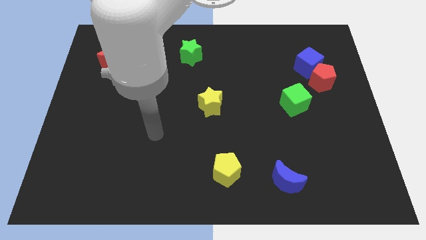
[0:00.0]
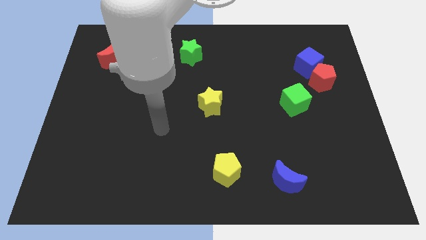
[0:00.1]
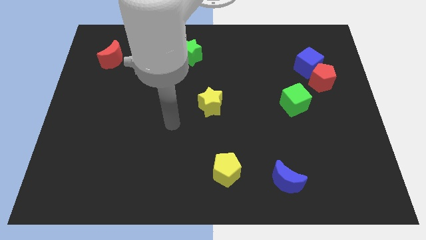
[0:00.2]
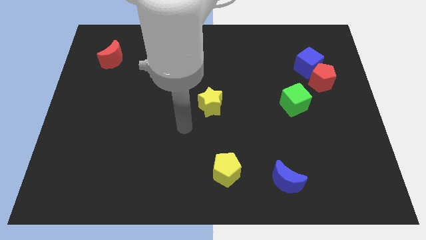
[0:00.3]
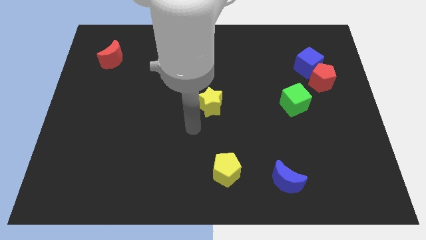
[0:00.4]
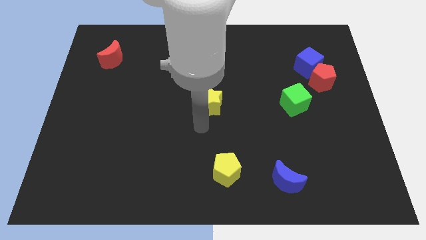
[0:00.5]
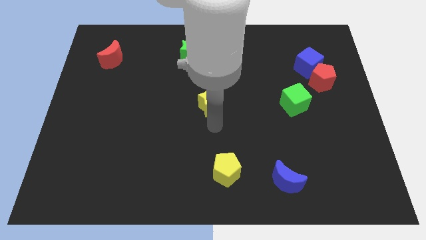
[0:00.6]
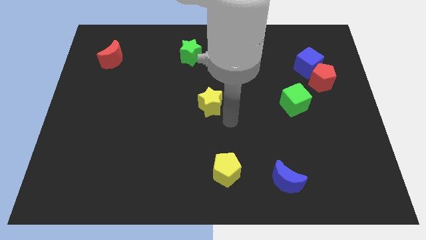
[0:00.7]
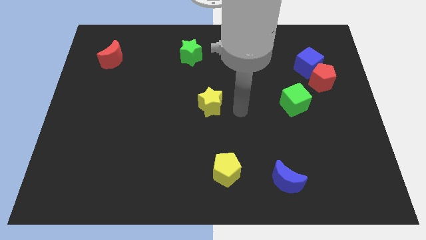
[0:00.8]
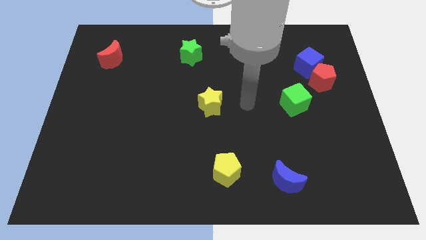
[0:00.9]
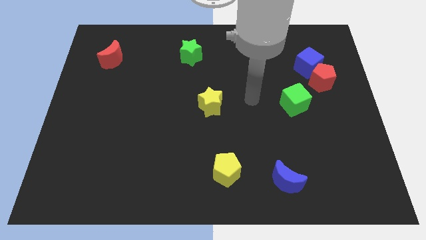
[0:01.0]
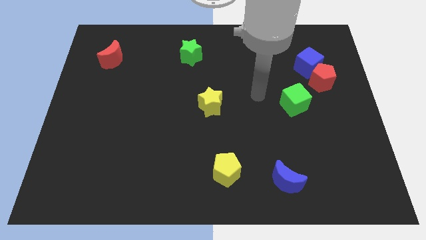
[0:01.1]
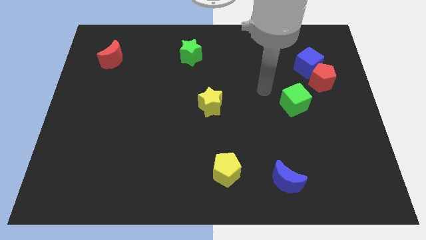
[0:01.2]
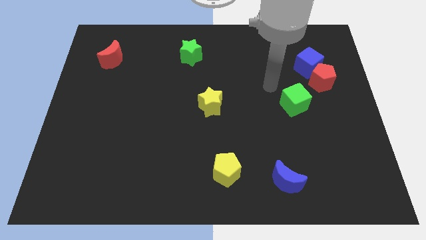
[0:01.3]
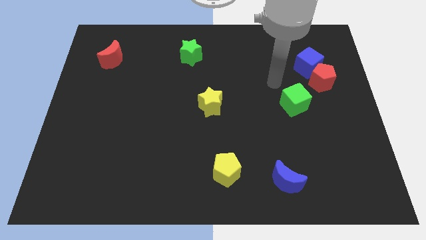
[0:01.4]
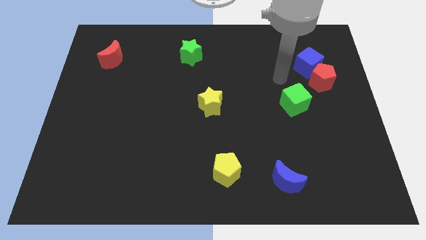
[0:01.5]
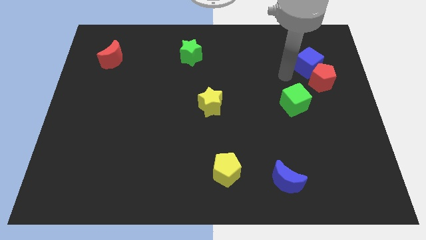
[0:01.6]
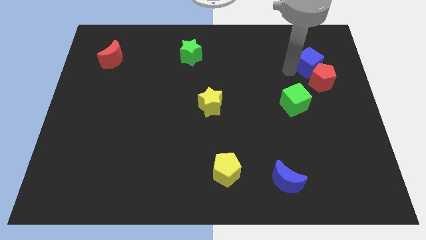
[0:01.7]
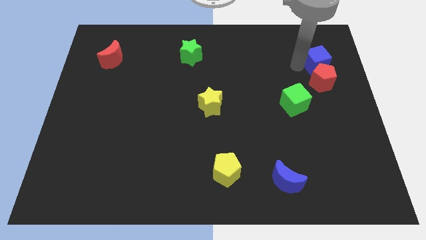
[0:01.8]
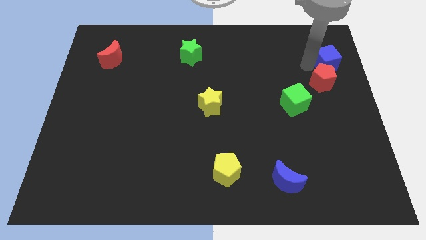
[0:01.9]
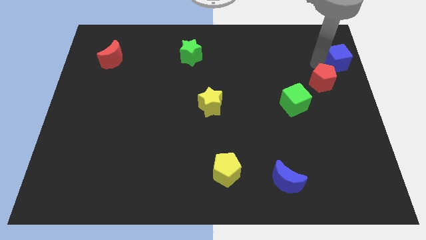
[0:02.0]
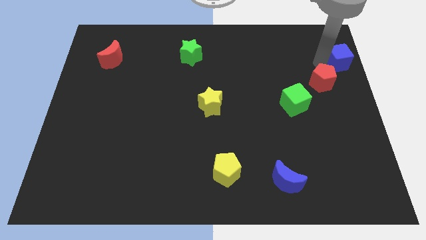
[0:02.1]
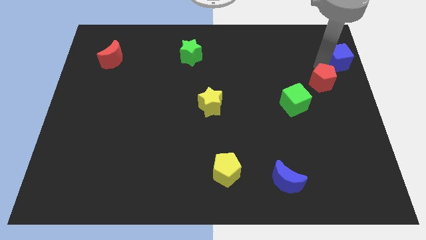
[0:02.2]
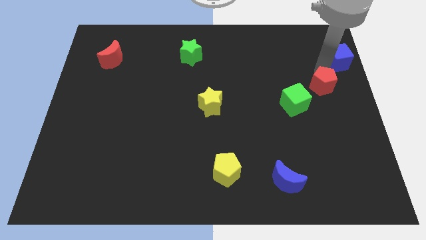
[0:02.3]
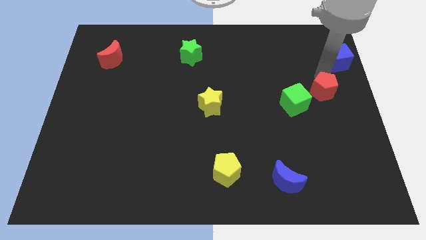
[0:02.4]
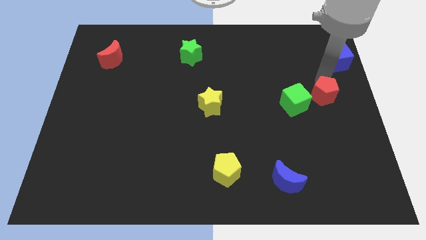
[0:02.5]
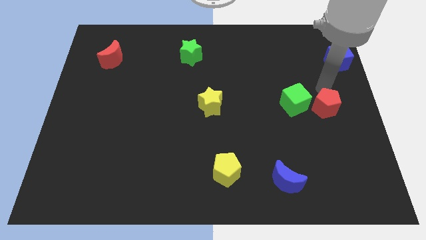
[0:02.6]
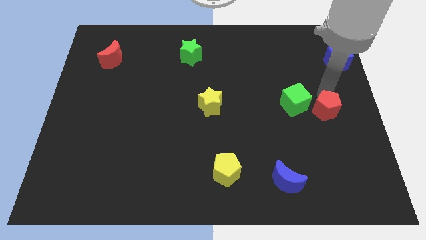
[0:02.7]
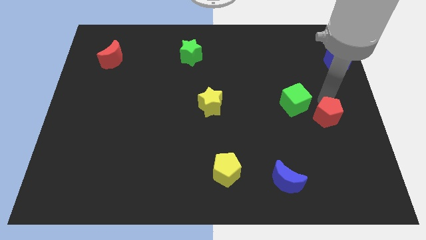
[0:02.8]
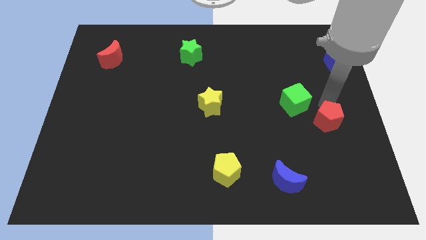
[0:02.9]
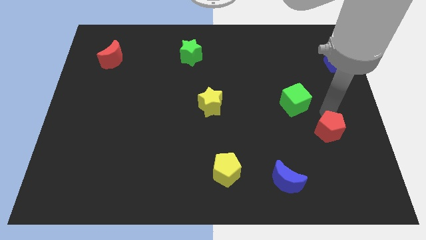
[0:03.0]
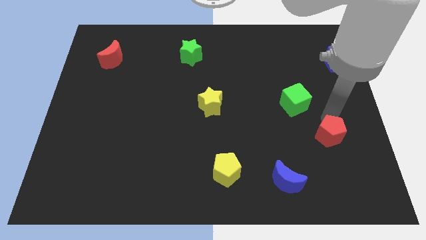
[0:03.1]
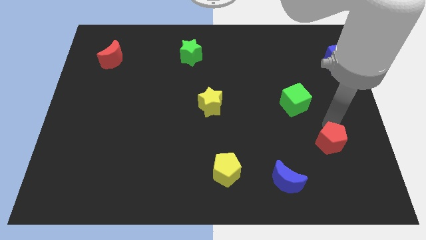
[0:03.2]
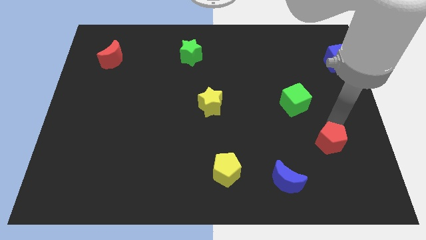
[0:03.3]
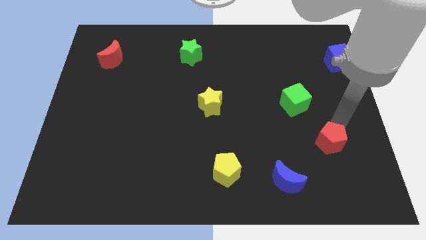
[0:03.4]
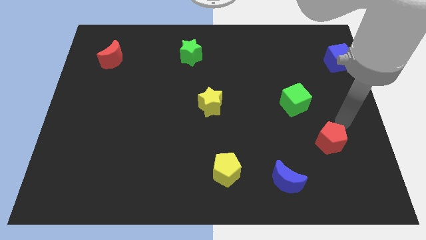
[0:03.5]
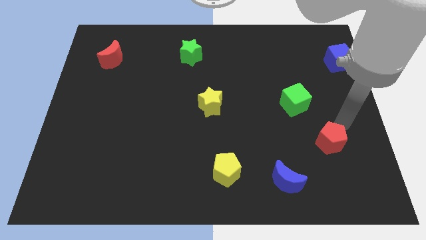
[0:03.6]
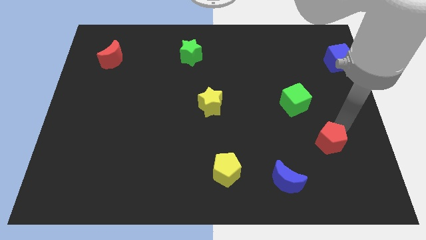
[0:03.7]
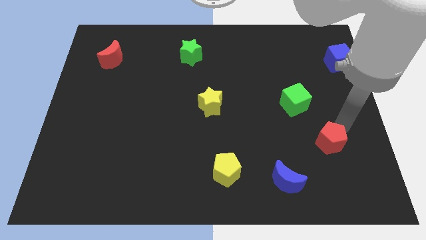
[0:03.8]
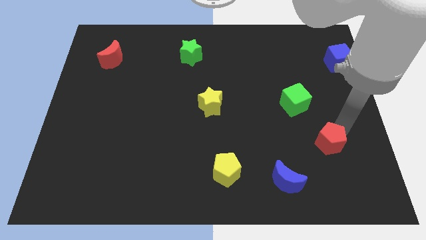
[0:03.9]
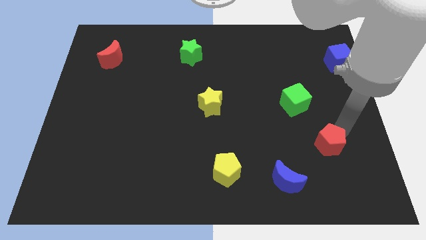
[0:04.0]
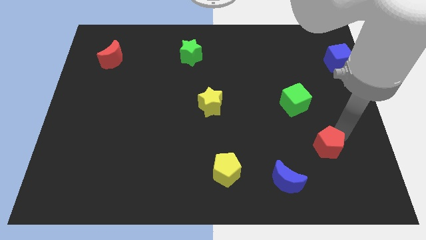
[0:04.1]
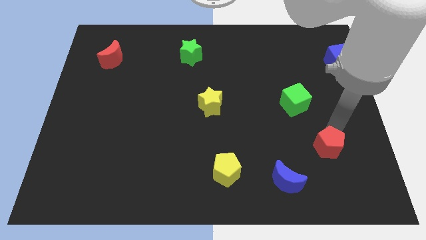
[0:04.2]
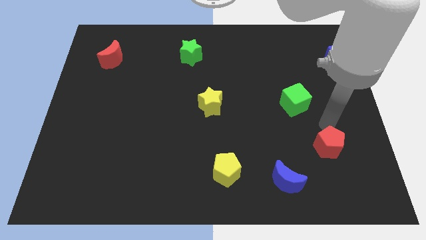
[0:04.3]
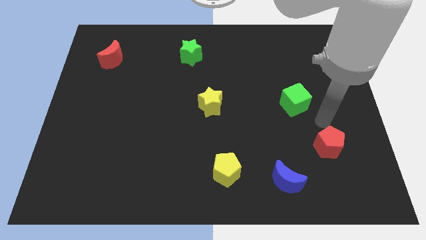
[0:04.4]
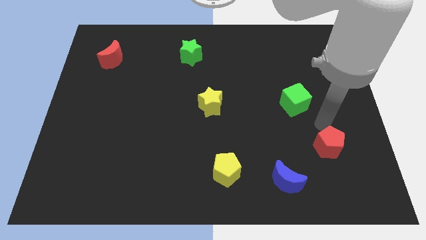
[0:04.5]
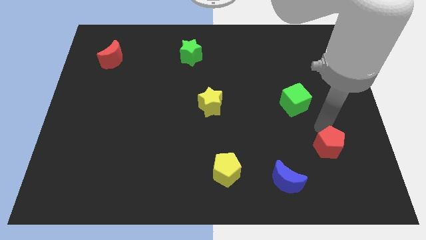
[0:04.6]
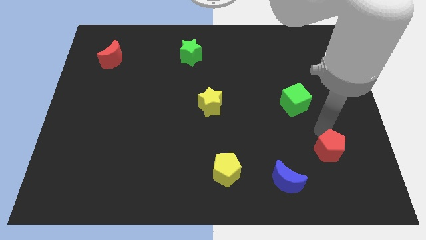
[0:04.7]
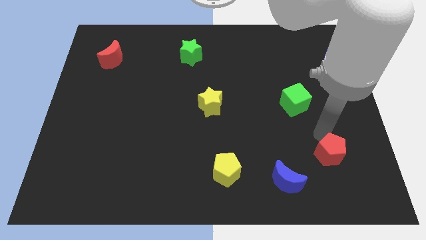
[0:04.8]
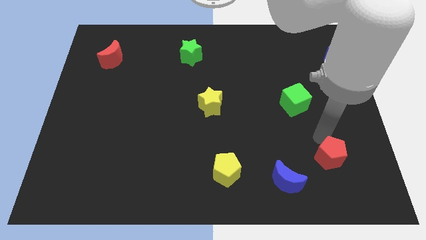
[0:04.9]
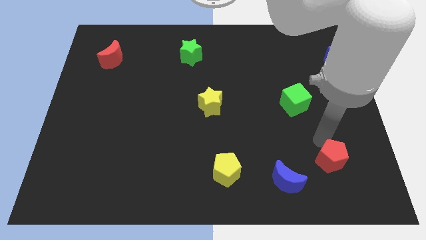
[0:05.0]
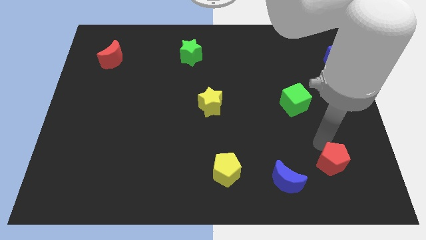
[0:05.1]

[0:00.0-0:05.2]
slide the red pentagon to the right of the blue moon

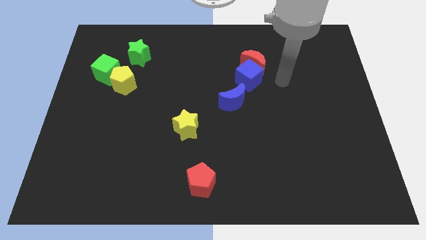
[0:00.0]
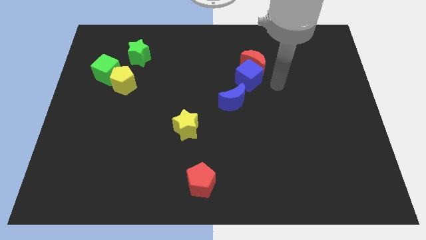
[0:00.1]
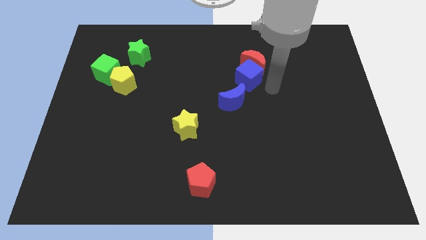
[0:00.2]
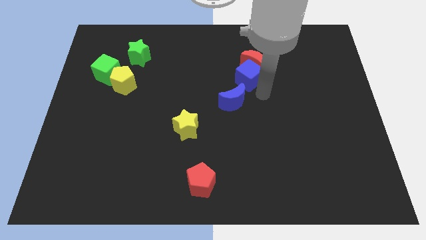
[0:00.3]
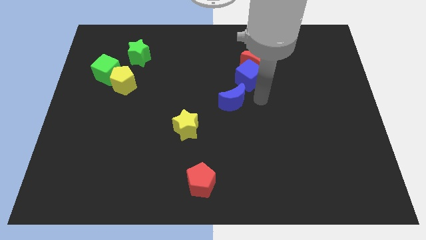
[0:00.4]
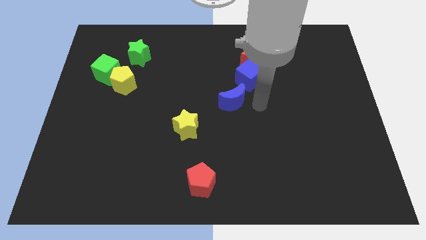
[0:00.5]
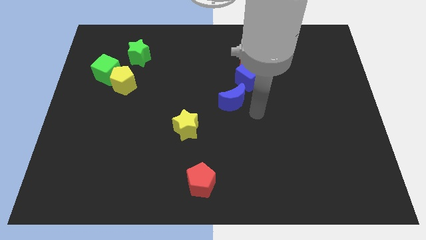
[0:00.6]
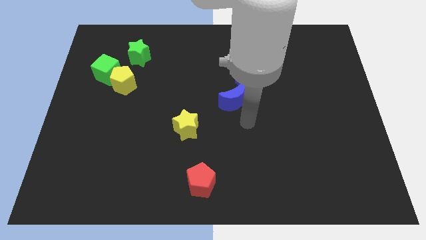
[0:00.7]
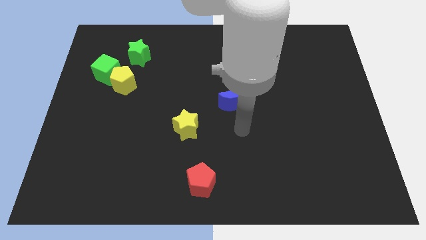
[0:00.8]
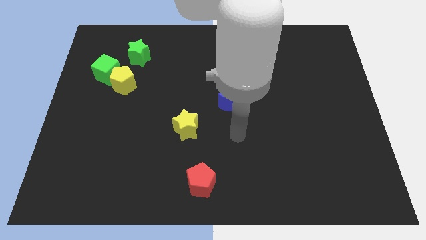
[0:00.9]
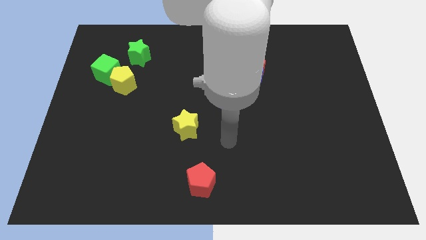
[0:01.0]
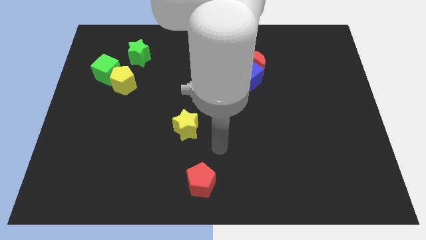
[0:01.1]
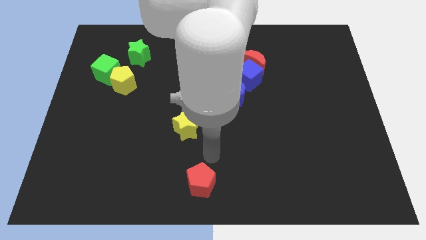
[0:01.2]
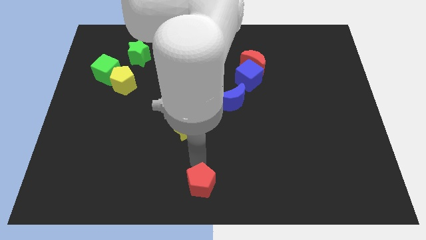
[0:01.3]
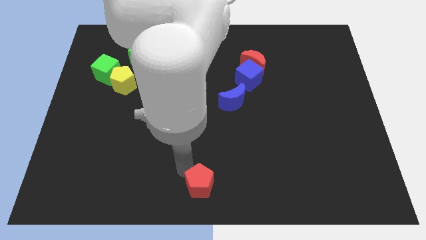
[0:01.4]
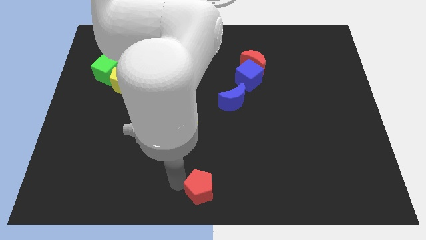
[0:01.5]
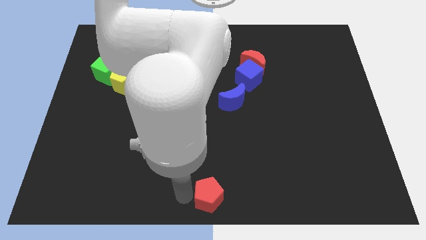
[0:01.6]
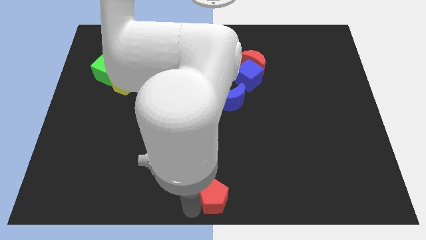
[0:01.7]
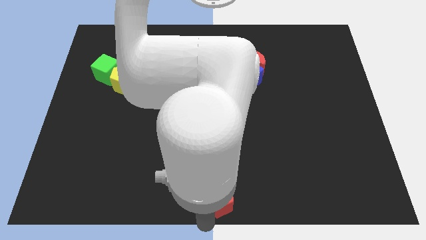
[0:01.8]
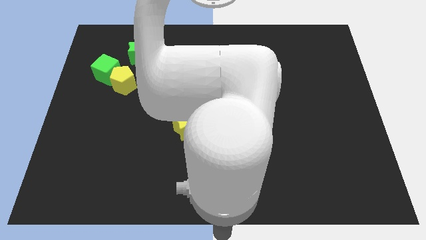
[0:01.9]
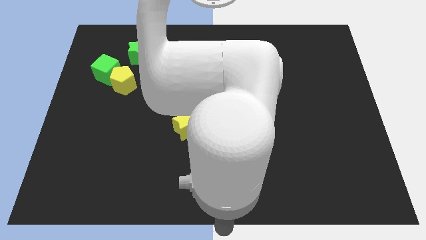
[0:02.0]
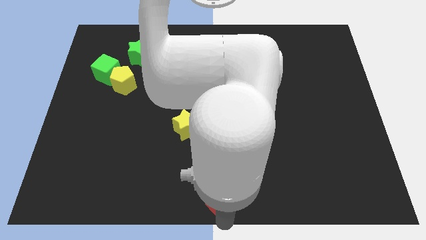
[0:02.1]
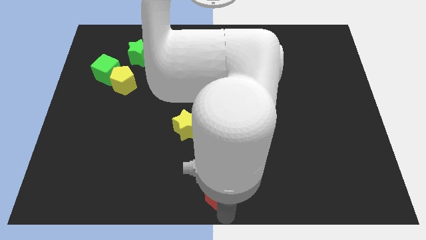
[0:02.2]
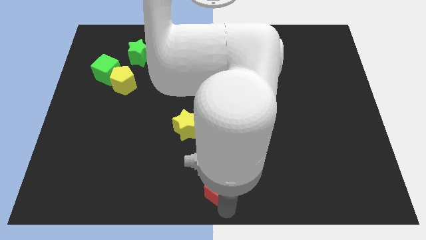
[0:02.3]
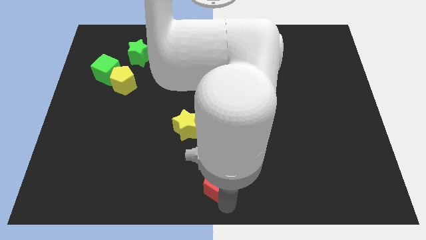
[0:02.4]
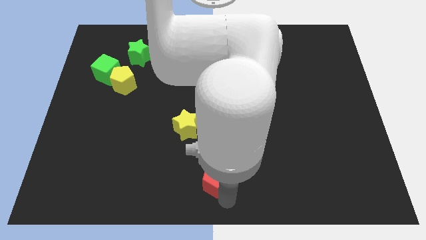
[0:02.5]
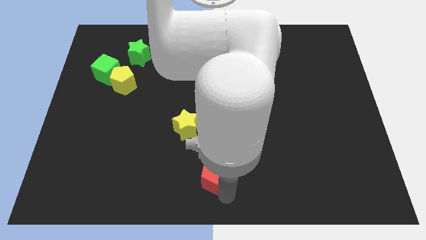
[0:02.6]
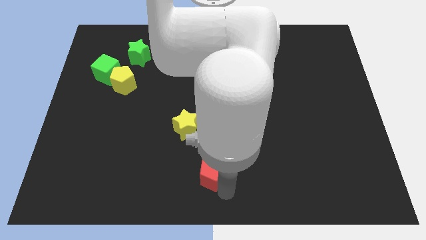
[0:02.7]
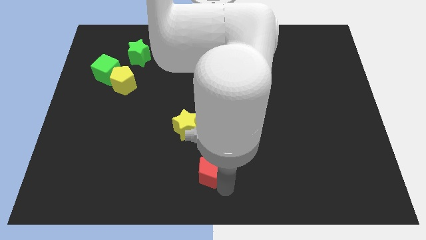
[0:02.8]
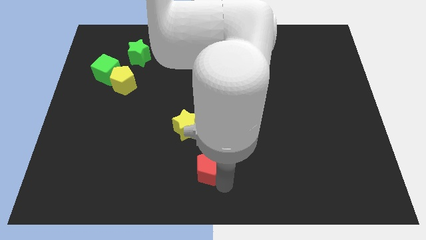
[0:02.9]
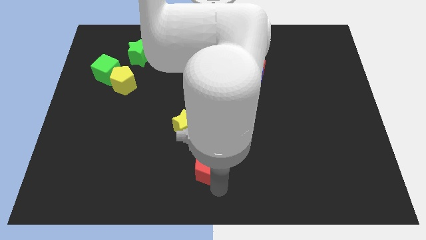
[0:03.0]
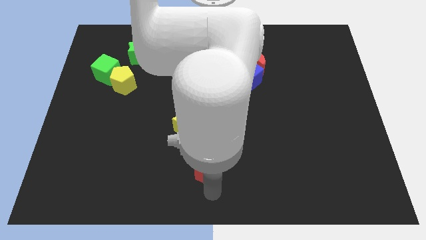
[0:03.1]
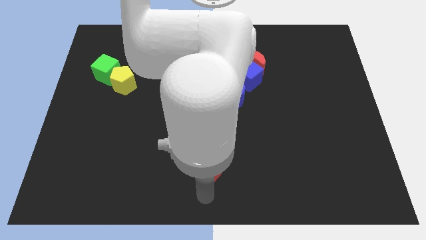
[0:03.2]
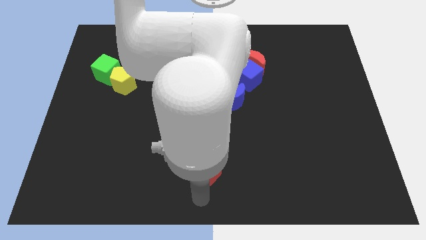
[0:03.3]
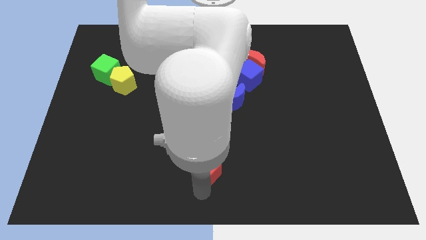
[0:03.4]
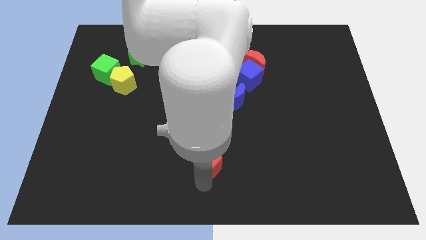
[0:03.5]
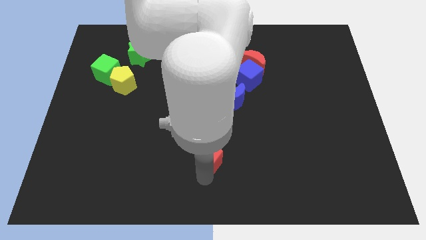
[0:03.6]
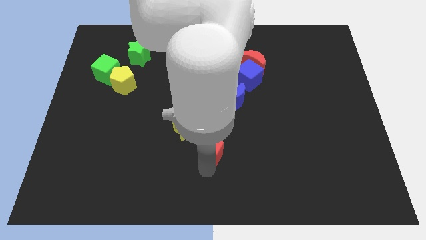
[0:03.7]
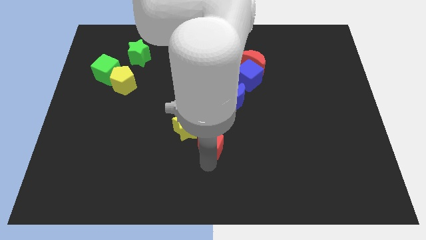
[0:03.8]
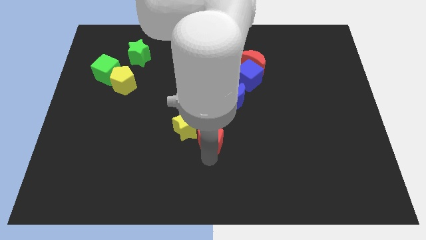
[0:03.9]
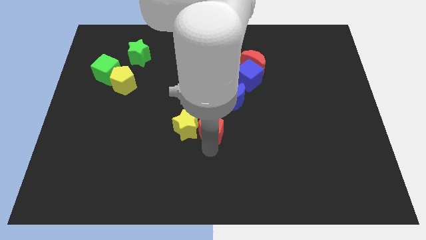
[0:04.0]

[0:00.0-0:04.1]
slide the red pentagon to the top right side of the yellow star
